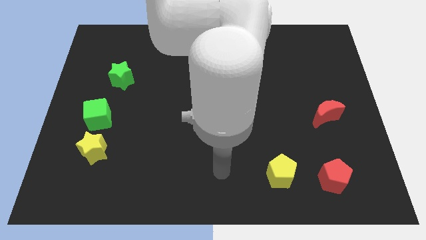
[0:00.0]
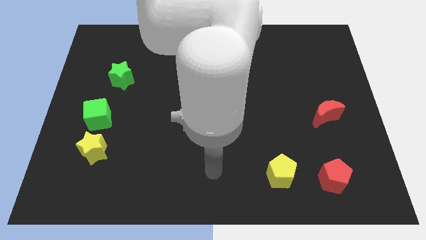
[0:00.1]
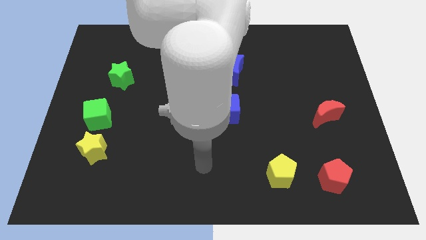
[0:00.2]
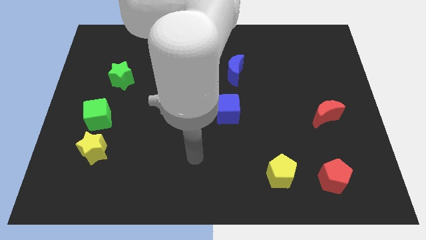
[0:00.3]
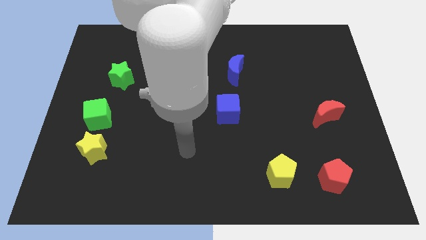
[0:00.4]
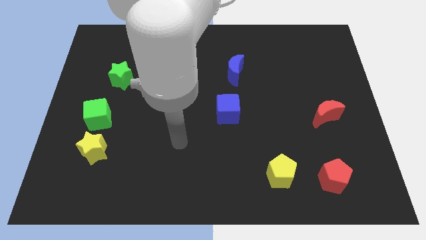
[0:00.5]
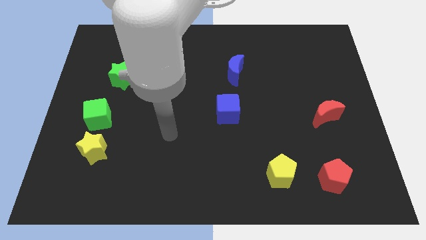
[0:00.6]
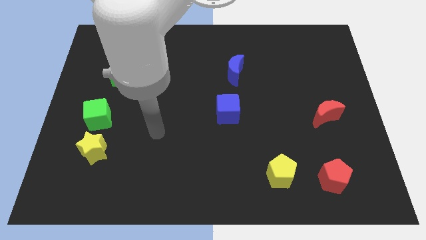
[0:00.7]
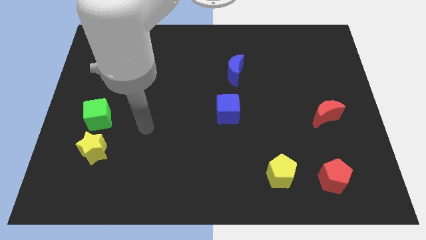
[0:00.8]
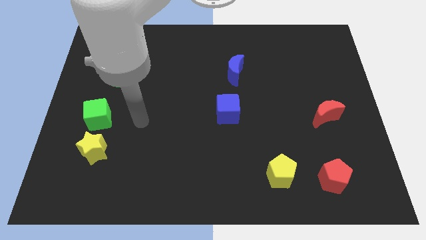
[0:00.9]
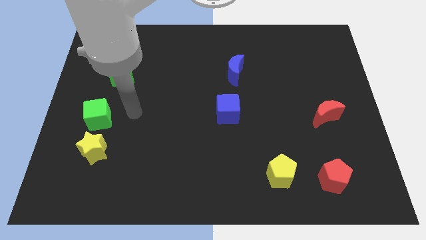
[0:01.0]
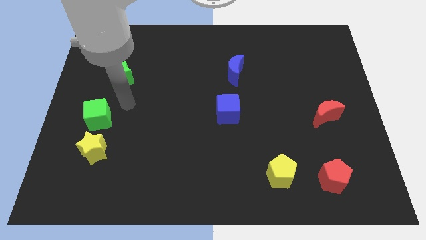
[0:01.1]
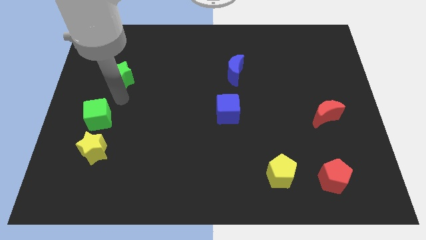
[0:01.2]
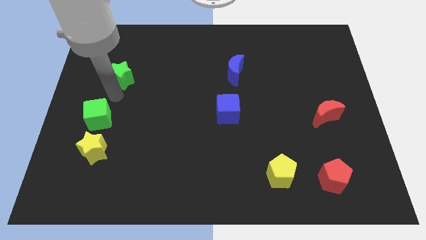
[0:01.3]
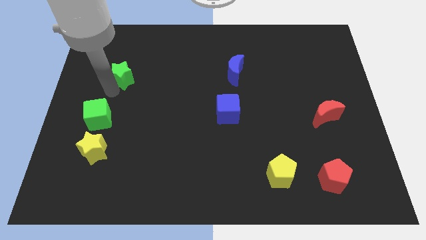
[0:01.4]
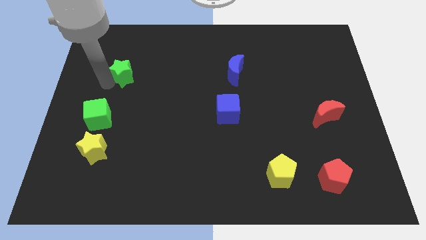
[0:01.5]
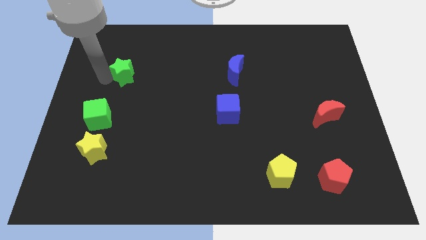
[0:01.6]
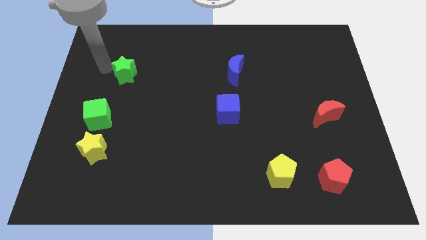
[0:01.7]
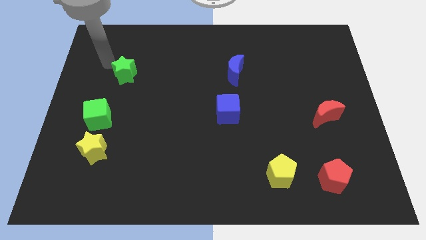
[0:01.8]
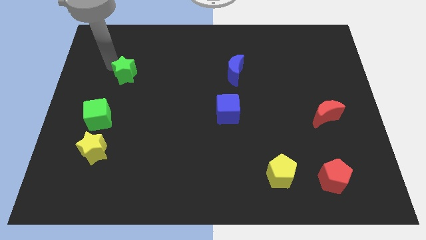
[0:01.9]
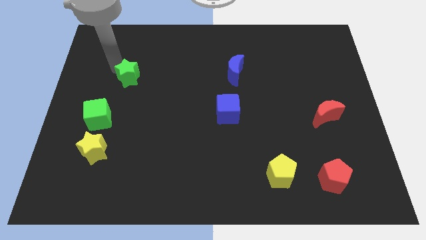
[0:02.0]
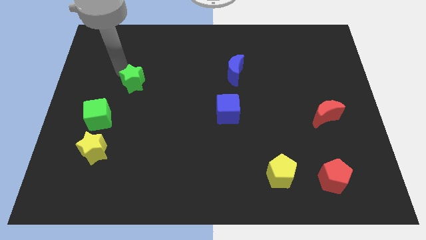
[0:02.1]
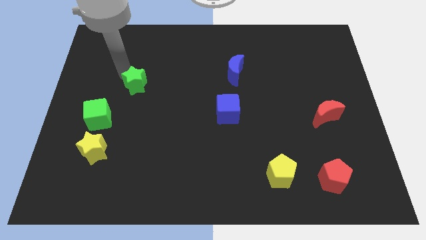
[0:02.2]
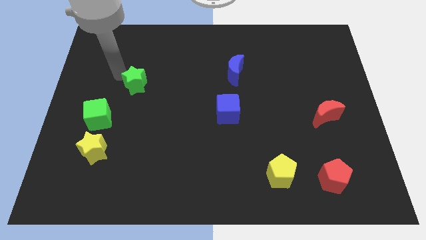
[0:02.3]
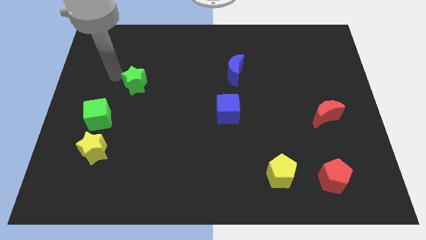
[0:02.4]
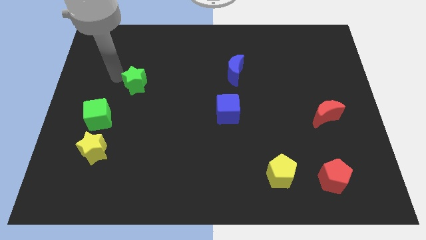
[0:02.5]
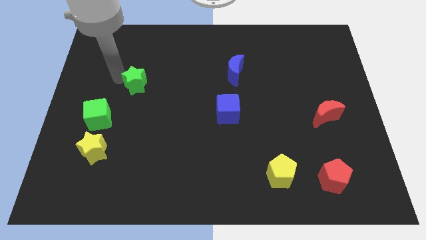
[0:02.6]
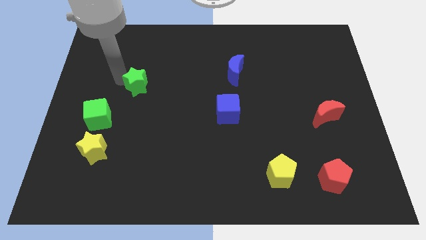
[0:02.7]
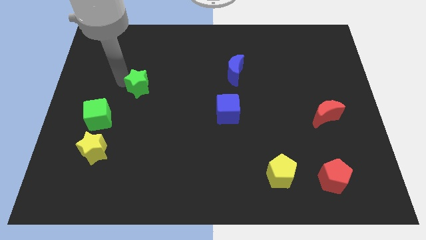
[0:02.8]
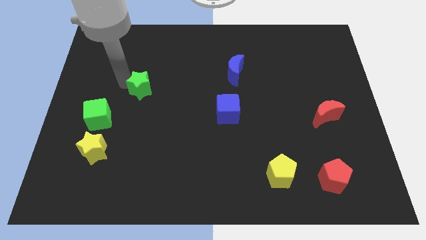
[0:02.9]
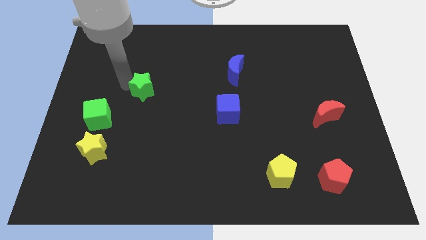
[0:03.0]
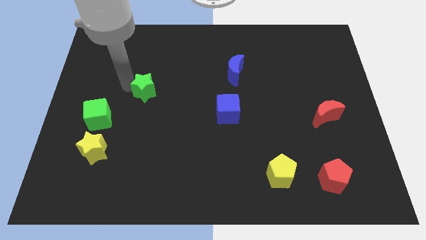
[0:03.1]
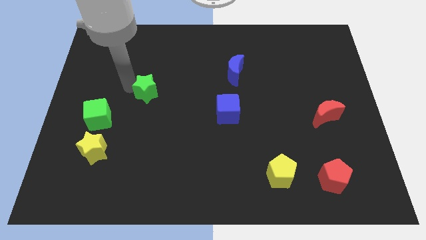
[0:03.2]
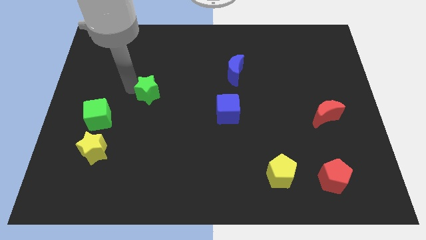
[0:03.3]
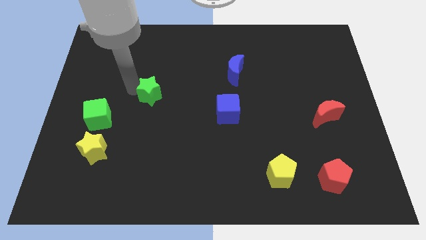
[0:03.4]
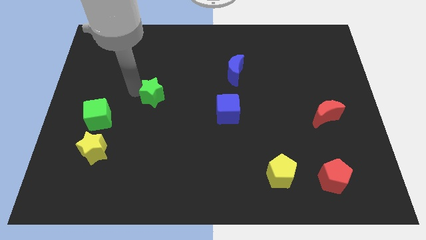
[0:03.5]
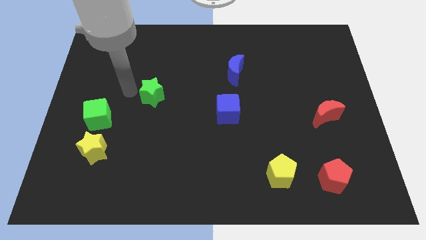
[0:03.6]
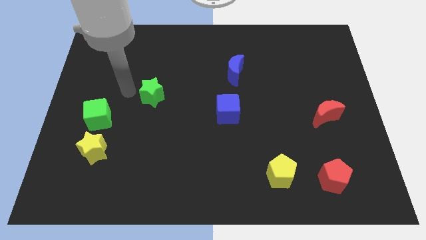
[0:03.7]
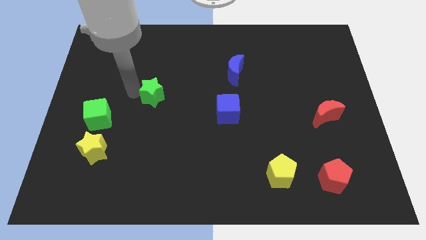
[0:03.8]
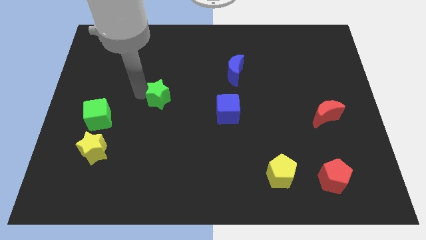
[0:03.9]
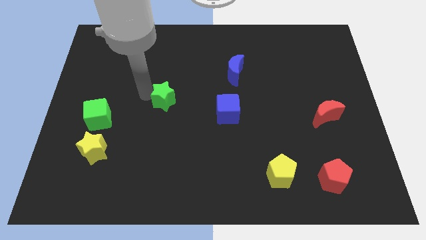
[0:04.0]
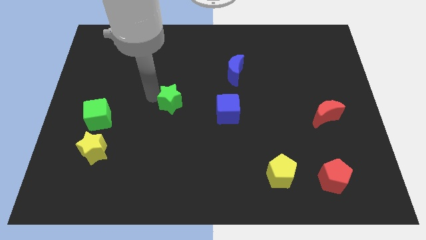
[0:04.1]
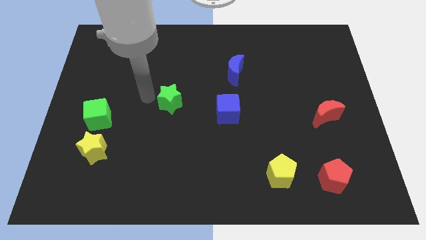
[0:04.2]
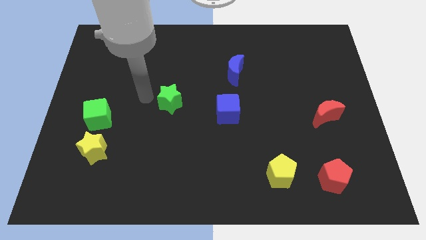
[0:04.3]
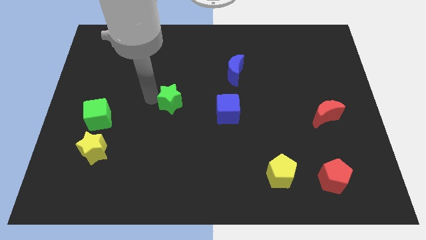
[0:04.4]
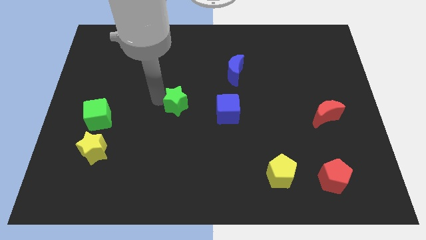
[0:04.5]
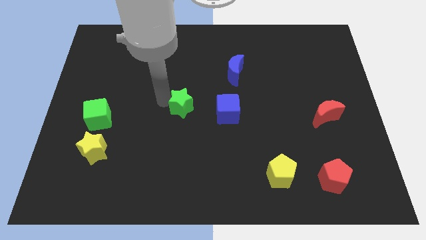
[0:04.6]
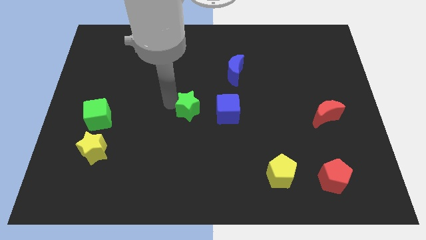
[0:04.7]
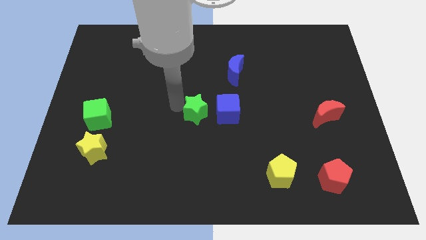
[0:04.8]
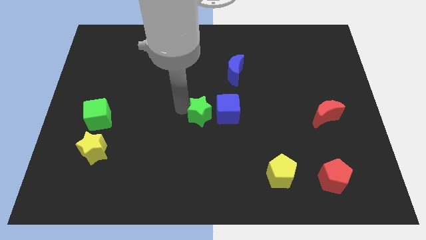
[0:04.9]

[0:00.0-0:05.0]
push the green star close to the blue cube

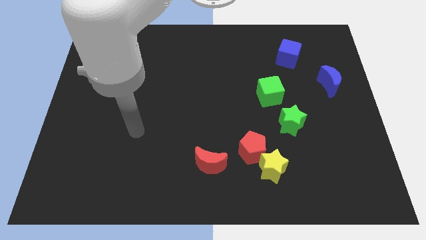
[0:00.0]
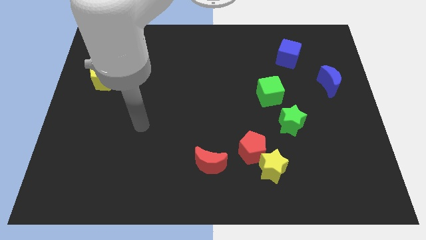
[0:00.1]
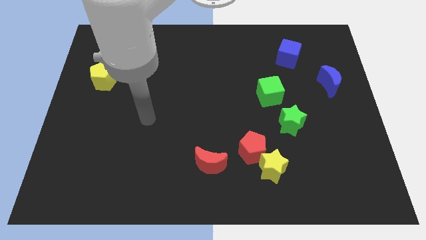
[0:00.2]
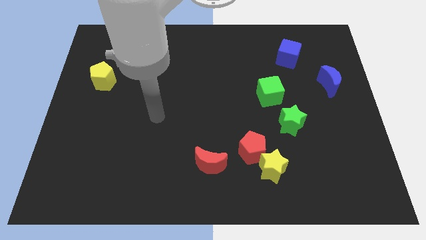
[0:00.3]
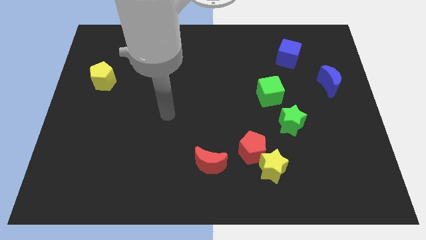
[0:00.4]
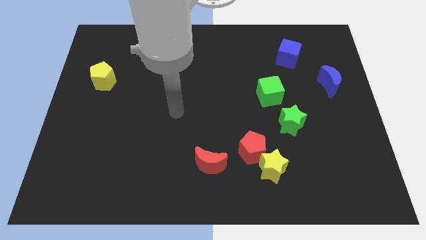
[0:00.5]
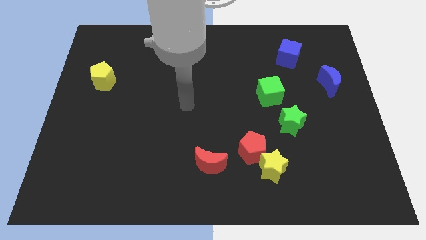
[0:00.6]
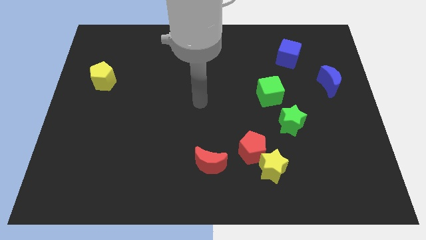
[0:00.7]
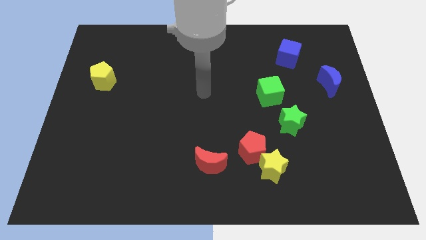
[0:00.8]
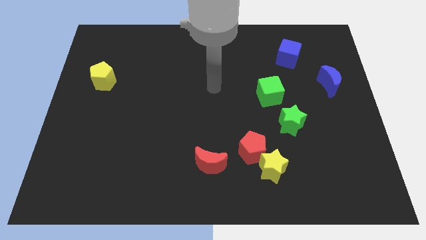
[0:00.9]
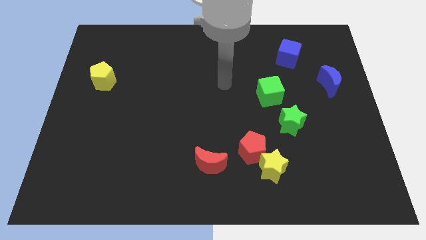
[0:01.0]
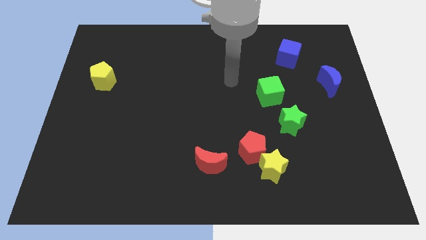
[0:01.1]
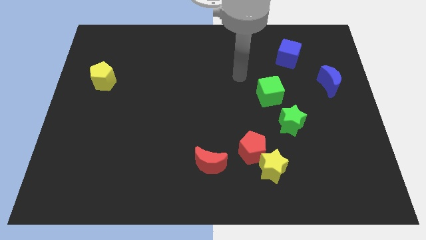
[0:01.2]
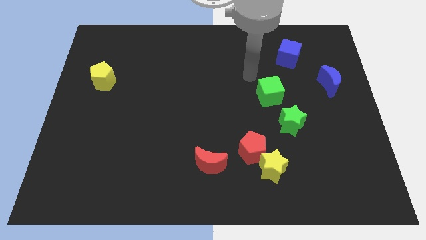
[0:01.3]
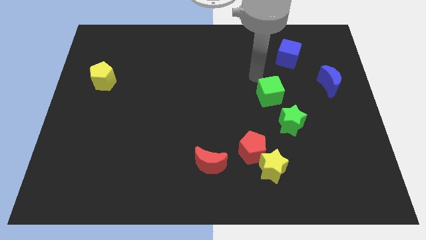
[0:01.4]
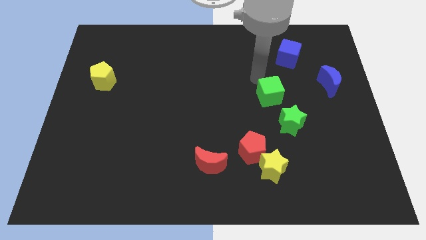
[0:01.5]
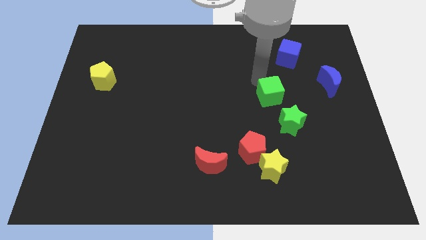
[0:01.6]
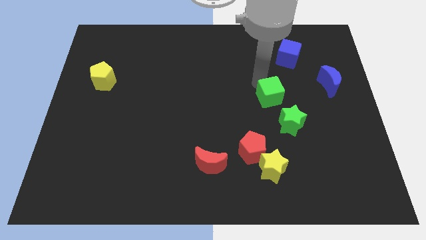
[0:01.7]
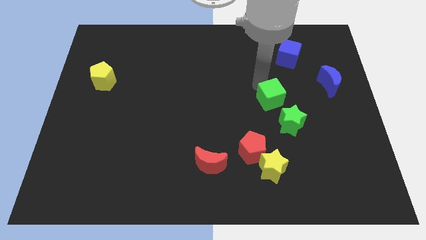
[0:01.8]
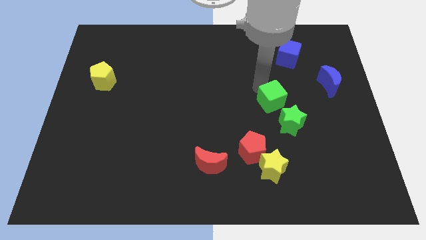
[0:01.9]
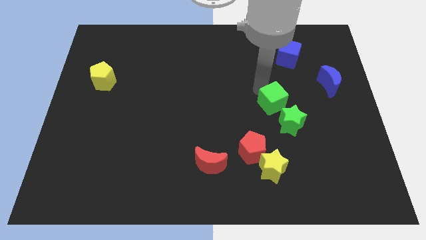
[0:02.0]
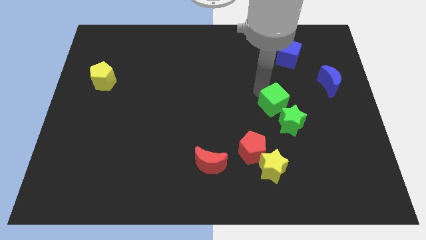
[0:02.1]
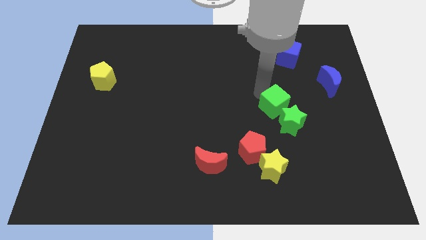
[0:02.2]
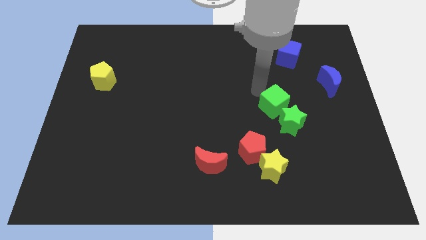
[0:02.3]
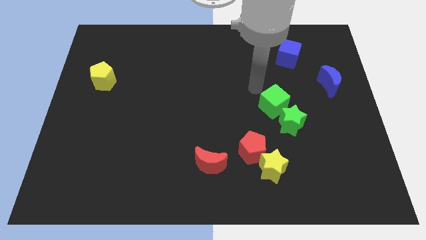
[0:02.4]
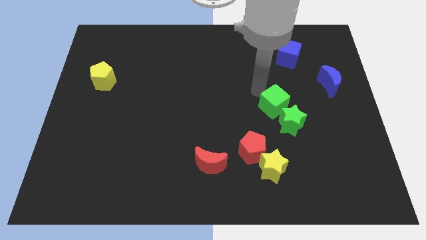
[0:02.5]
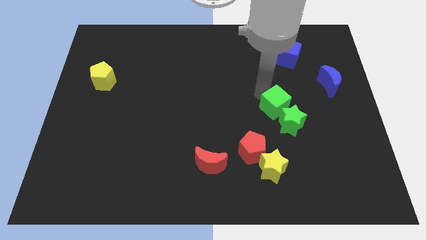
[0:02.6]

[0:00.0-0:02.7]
push the green cube to the green star

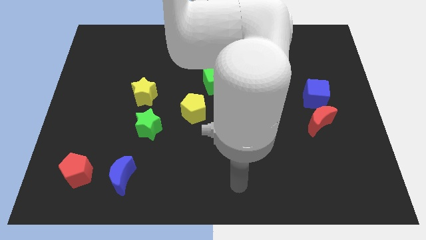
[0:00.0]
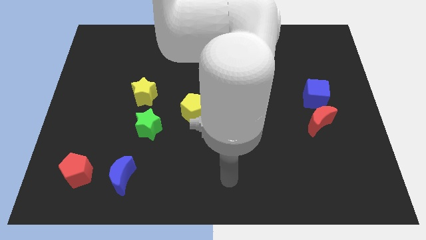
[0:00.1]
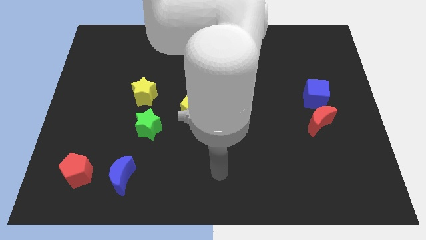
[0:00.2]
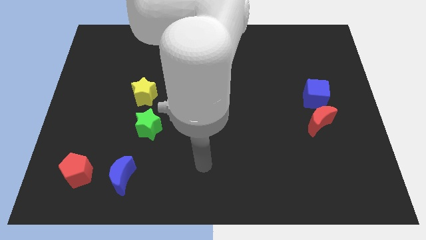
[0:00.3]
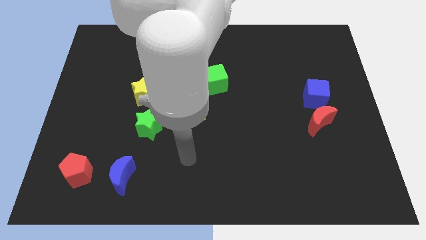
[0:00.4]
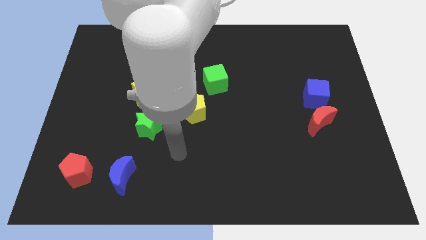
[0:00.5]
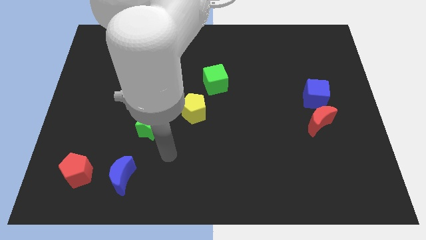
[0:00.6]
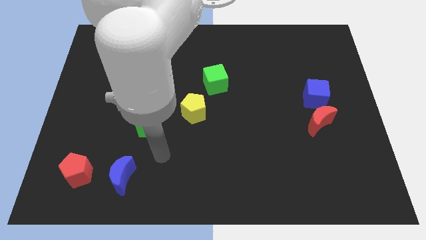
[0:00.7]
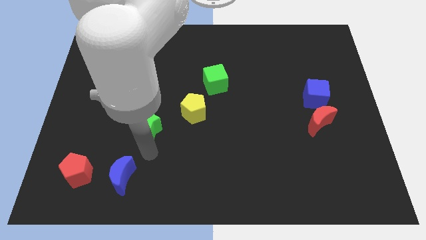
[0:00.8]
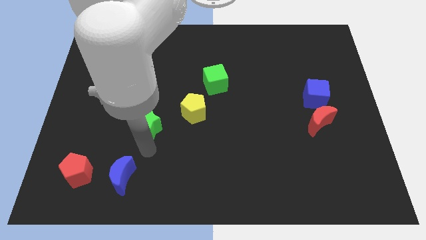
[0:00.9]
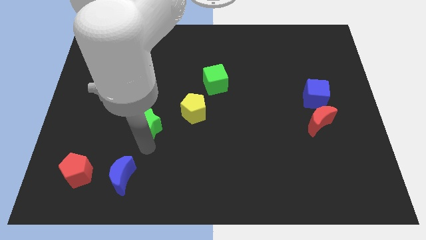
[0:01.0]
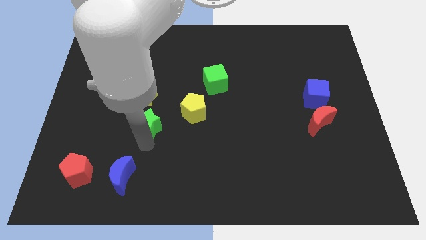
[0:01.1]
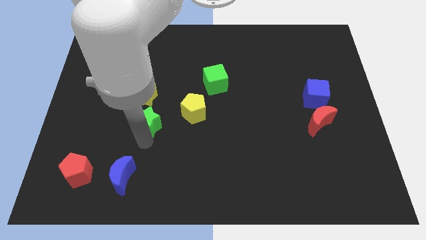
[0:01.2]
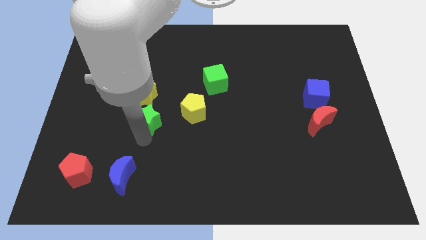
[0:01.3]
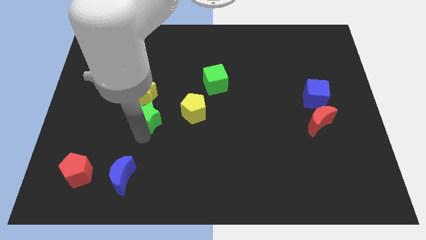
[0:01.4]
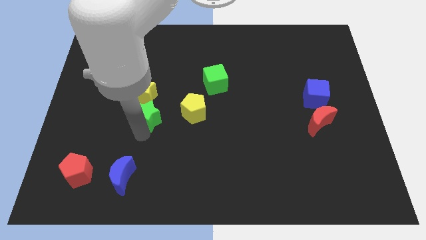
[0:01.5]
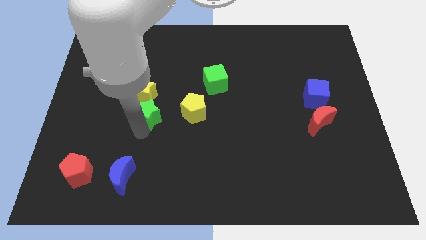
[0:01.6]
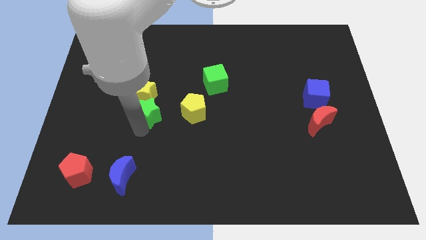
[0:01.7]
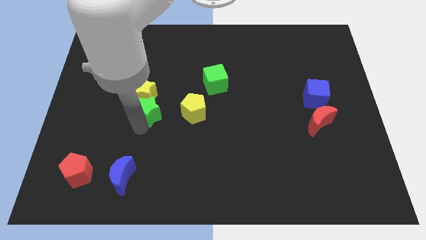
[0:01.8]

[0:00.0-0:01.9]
put the green star next to the yellow star
